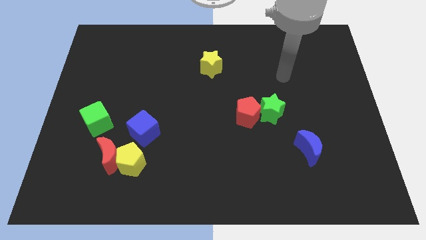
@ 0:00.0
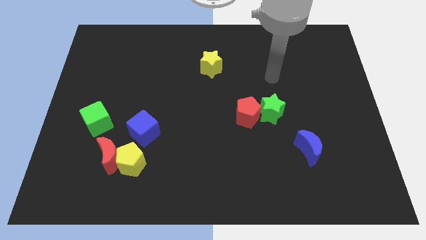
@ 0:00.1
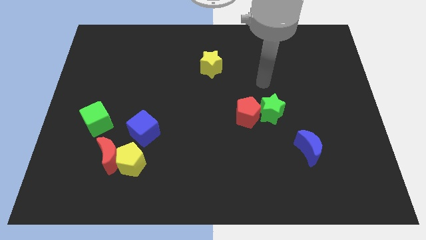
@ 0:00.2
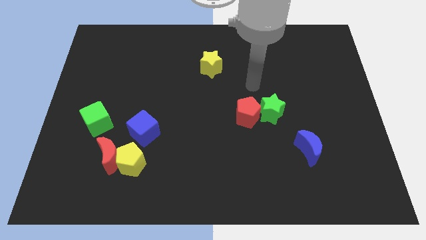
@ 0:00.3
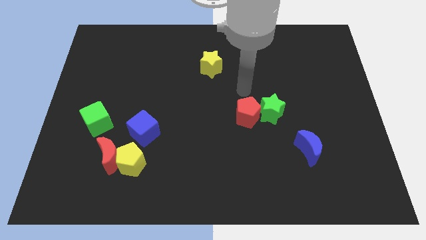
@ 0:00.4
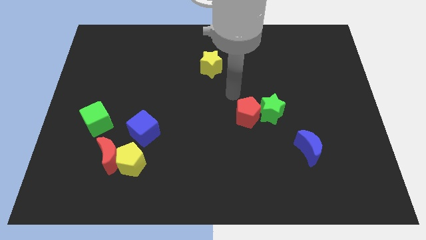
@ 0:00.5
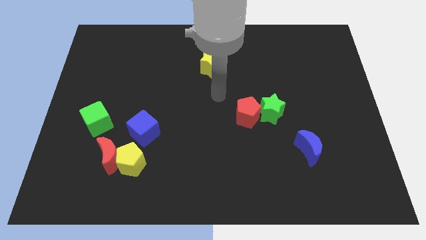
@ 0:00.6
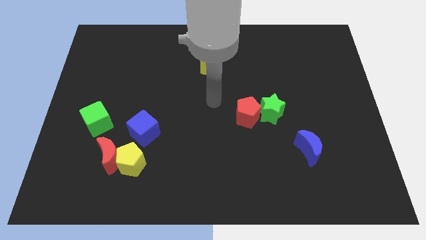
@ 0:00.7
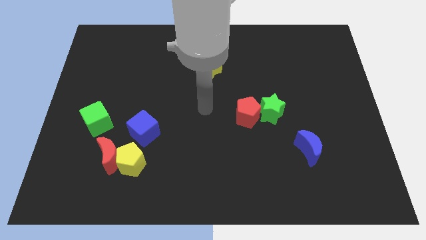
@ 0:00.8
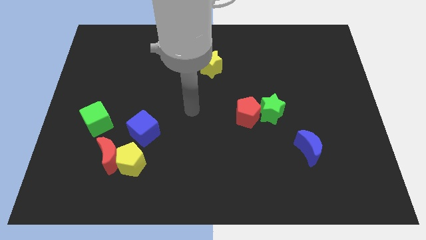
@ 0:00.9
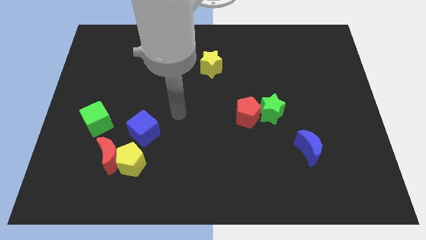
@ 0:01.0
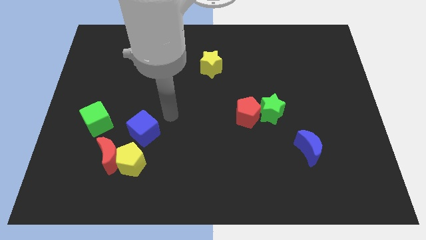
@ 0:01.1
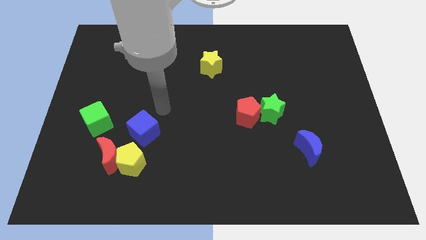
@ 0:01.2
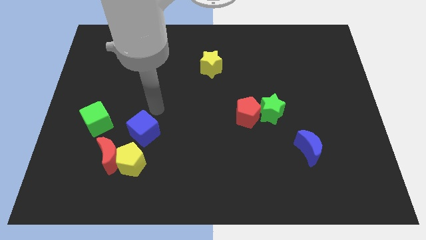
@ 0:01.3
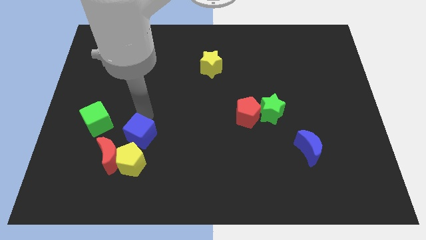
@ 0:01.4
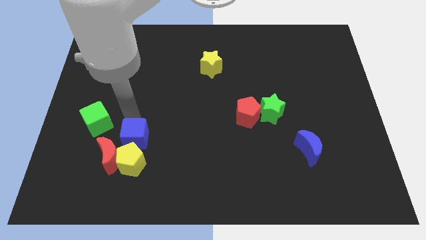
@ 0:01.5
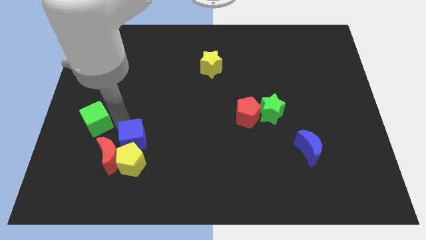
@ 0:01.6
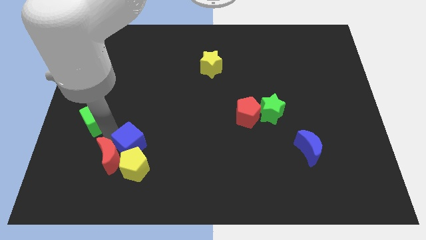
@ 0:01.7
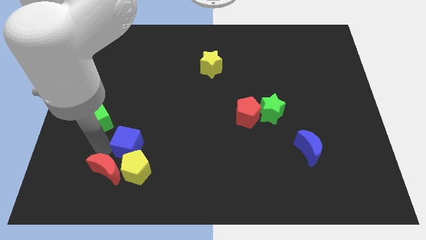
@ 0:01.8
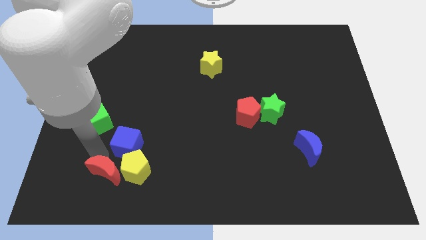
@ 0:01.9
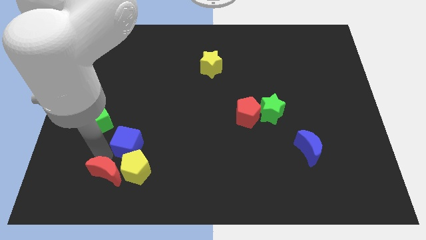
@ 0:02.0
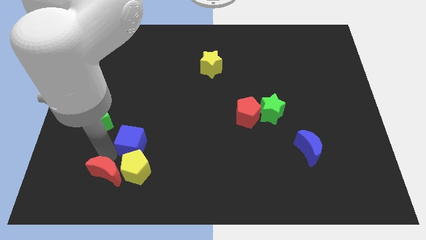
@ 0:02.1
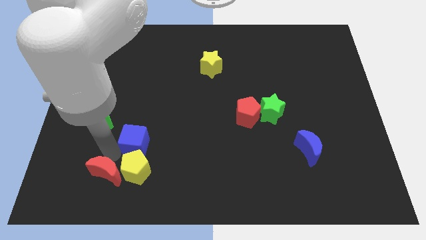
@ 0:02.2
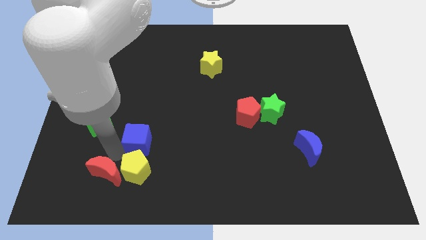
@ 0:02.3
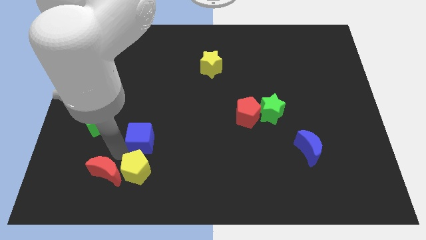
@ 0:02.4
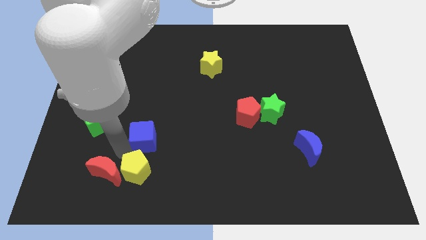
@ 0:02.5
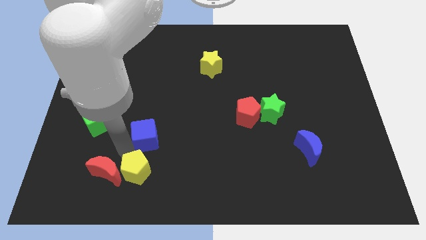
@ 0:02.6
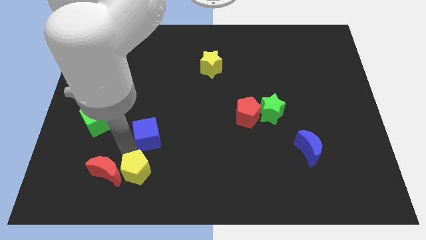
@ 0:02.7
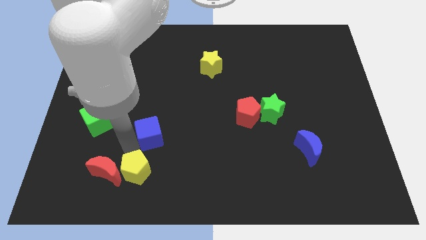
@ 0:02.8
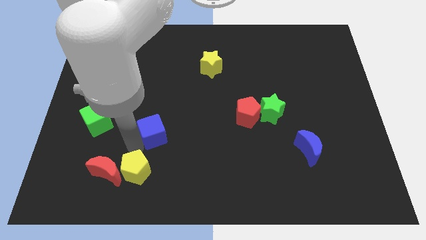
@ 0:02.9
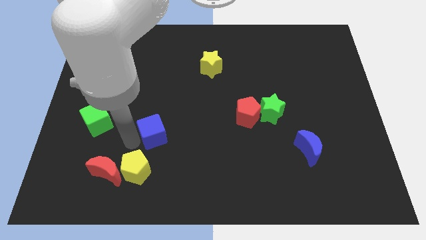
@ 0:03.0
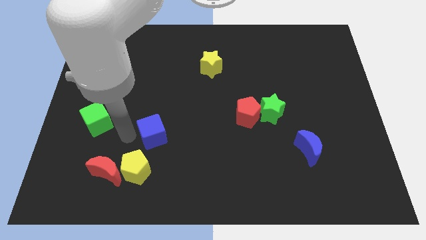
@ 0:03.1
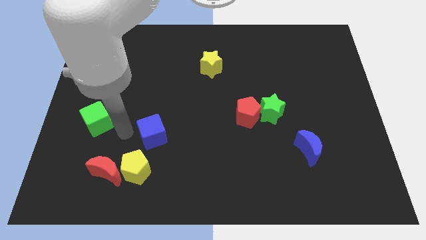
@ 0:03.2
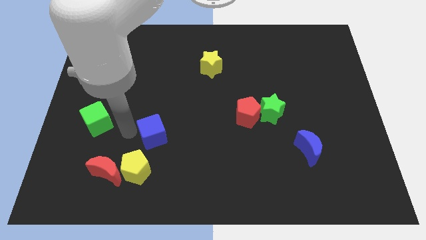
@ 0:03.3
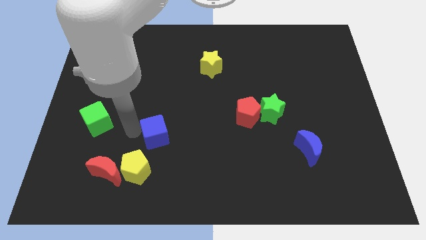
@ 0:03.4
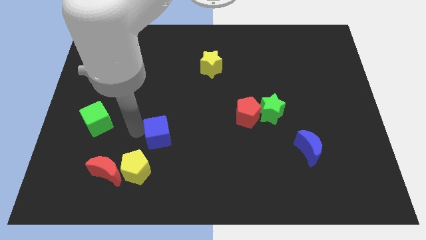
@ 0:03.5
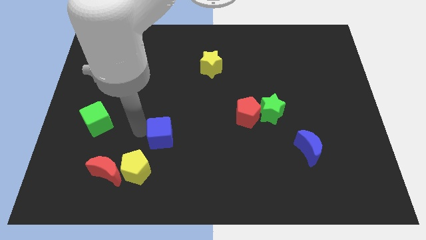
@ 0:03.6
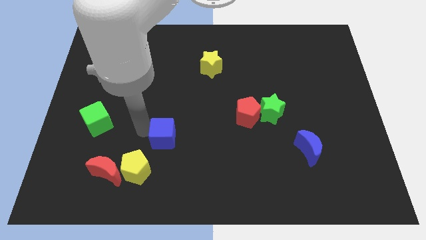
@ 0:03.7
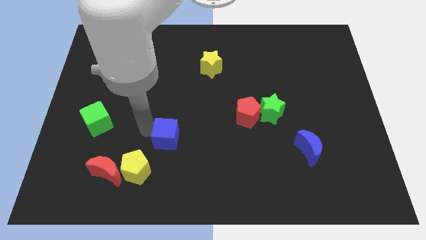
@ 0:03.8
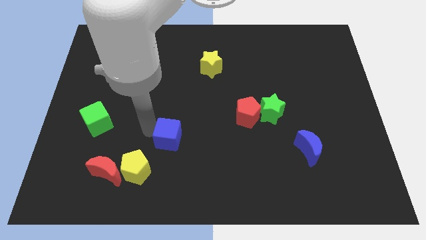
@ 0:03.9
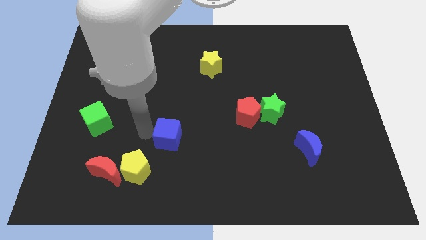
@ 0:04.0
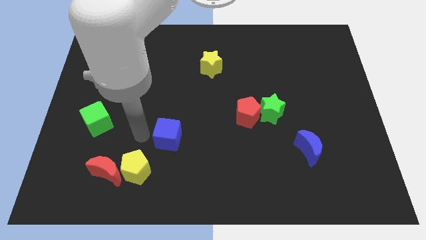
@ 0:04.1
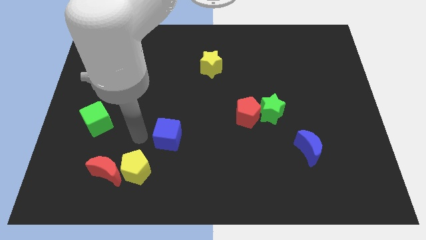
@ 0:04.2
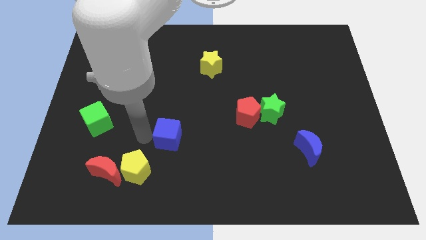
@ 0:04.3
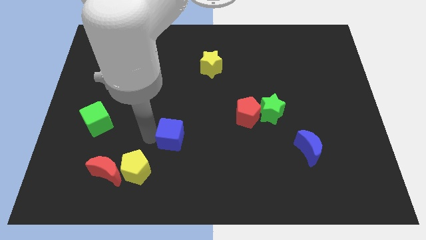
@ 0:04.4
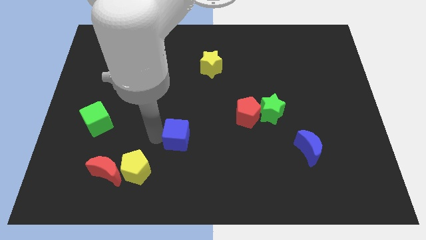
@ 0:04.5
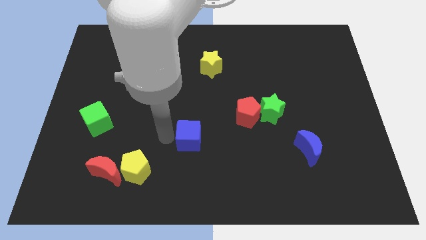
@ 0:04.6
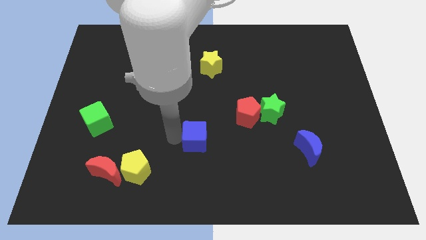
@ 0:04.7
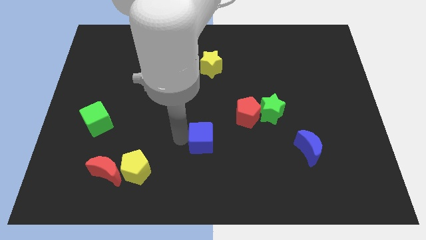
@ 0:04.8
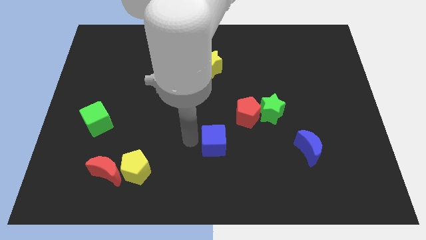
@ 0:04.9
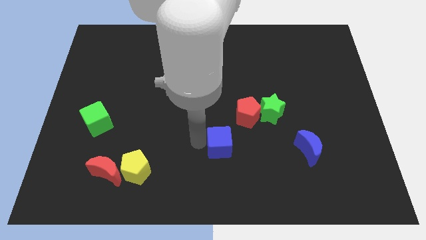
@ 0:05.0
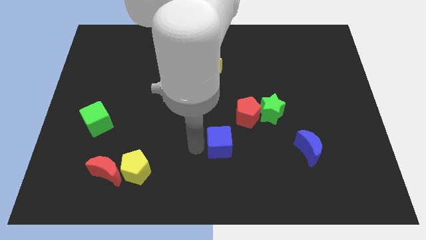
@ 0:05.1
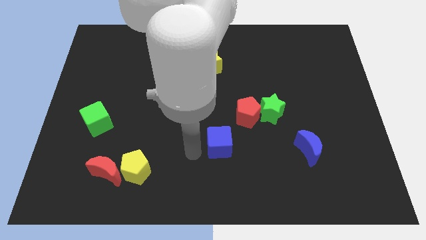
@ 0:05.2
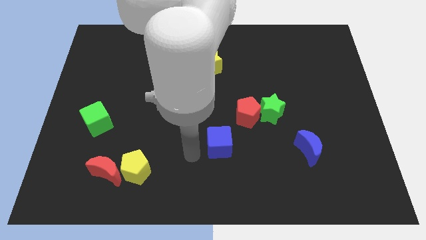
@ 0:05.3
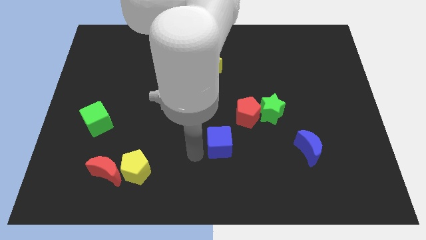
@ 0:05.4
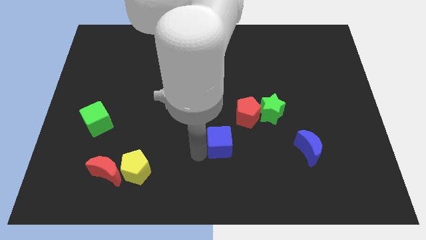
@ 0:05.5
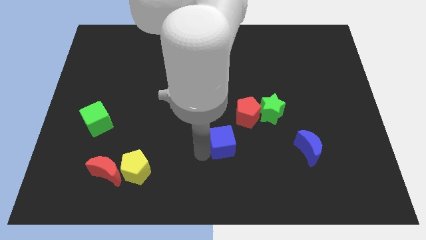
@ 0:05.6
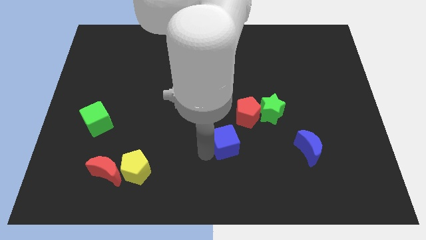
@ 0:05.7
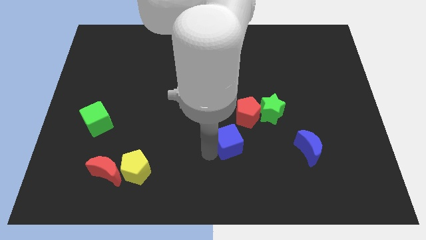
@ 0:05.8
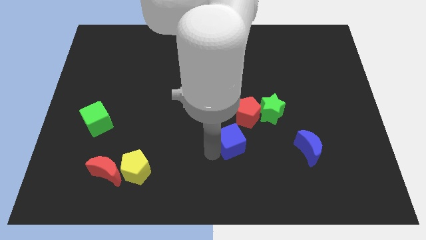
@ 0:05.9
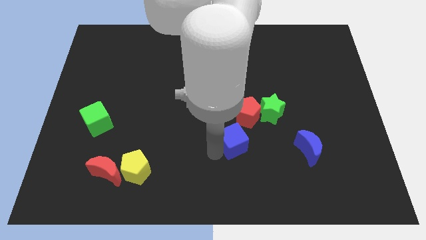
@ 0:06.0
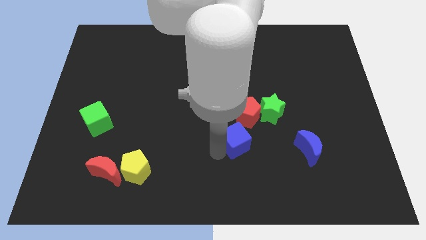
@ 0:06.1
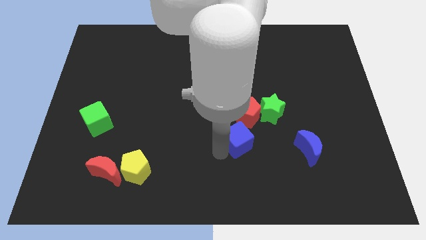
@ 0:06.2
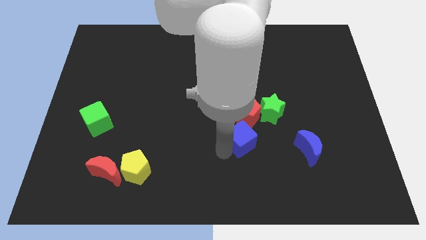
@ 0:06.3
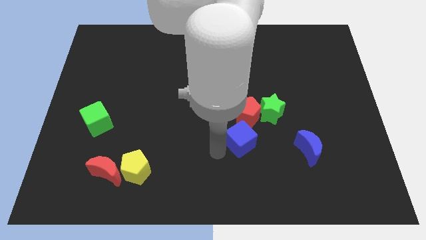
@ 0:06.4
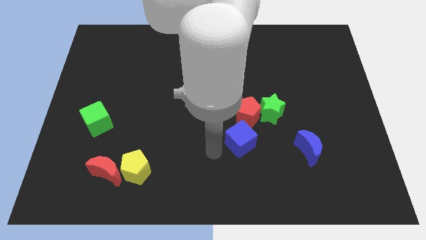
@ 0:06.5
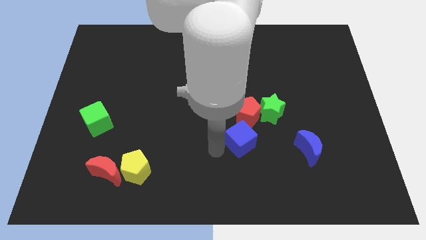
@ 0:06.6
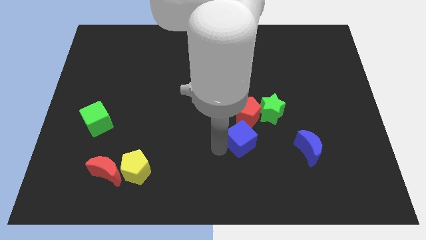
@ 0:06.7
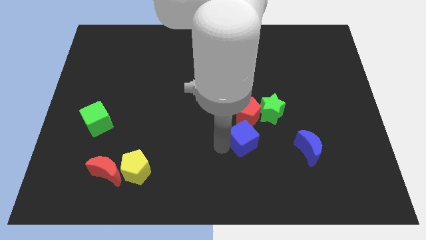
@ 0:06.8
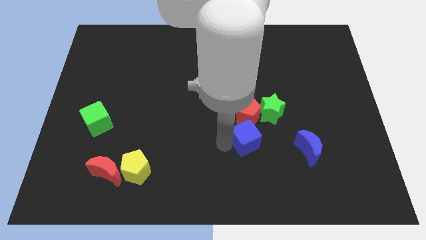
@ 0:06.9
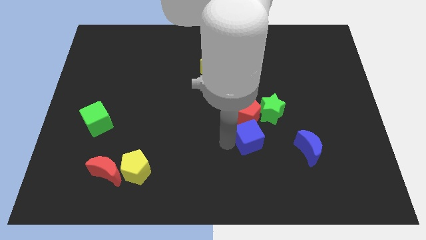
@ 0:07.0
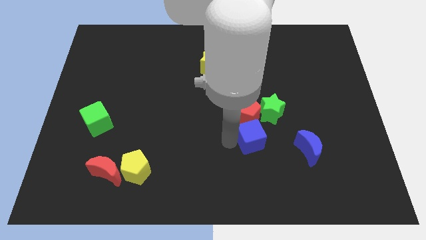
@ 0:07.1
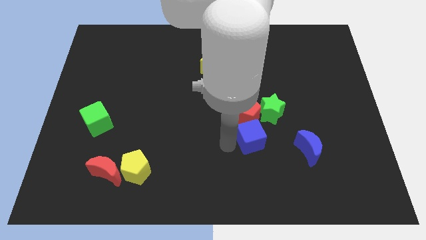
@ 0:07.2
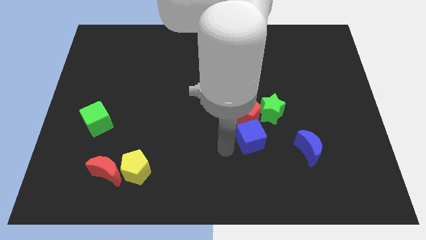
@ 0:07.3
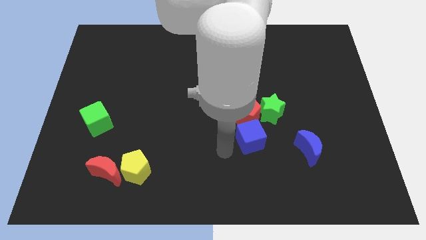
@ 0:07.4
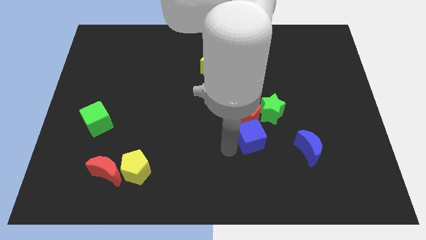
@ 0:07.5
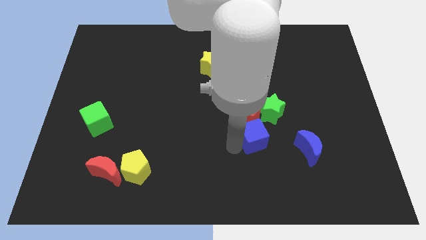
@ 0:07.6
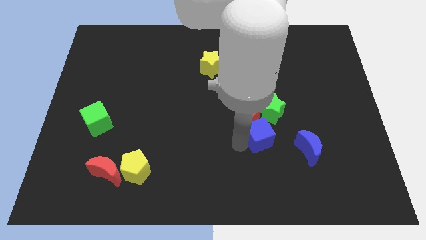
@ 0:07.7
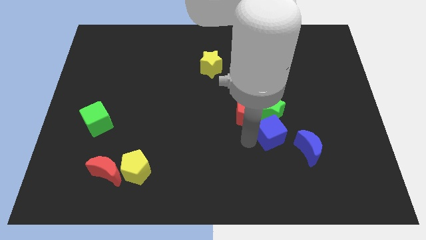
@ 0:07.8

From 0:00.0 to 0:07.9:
slide the blue cube diagonally down and to the right of the green star
